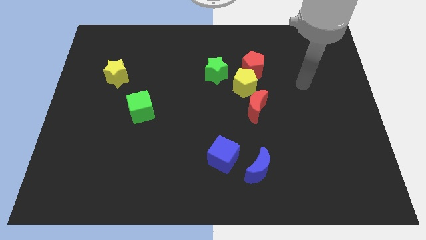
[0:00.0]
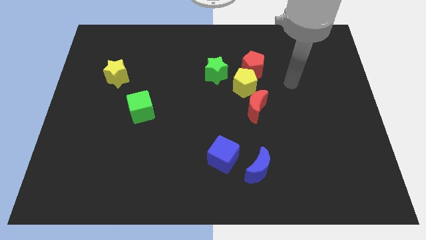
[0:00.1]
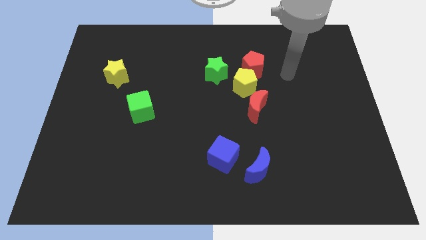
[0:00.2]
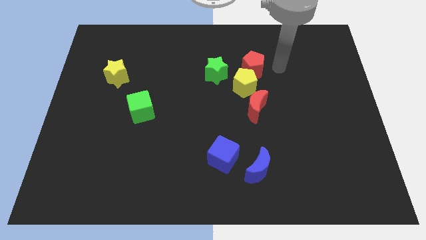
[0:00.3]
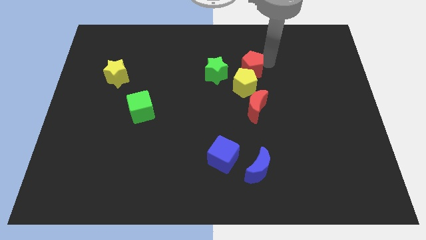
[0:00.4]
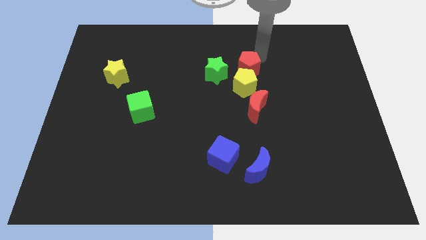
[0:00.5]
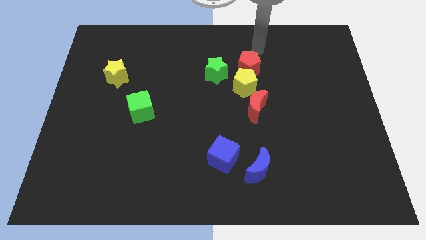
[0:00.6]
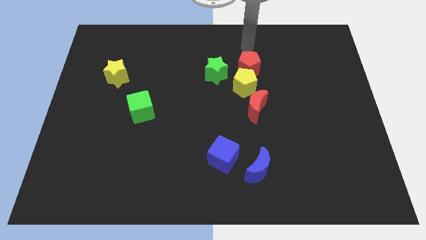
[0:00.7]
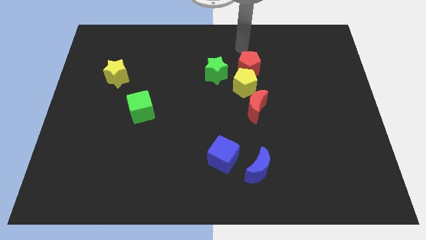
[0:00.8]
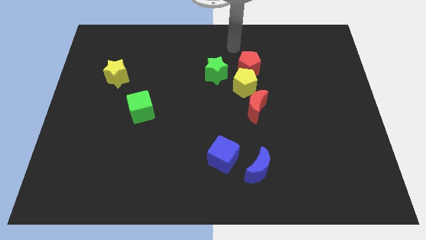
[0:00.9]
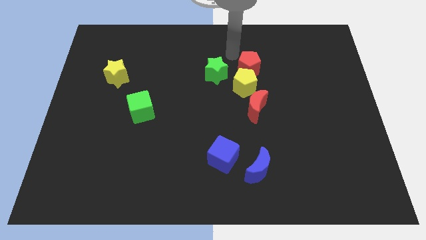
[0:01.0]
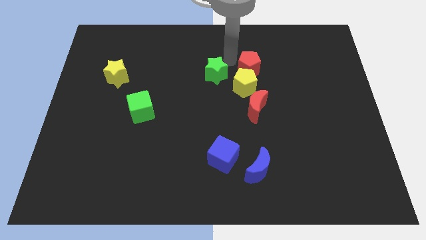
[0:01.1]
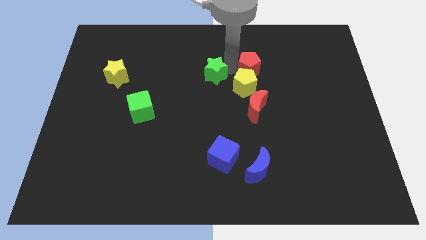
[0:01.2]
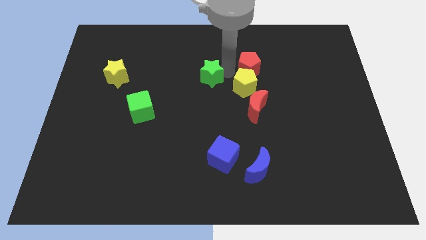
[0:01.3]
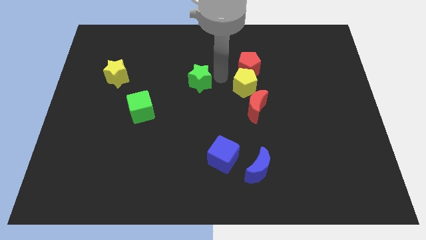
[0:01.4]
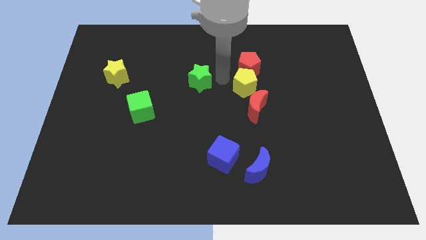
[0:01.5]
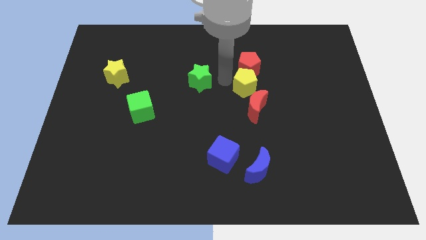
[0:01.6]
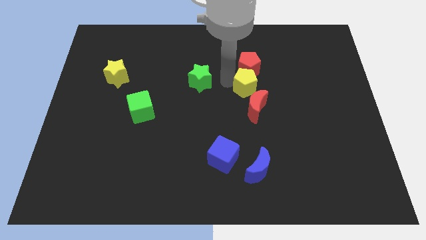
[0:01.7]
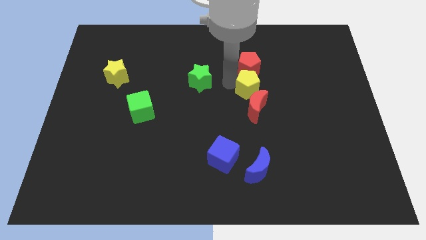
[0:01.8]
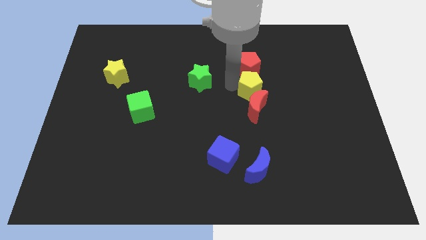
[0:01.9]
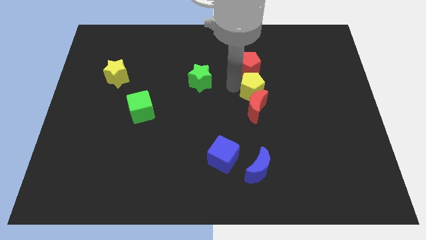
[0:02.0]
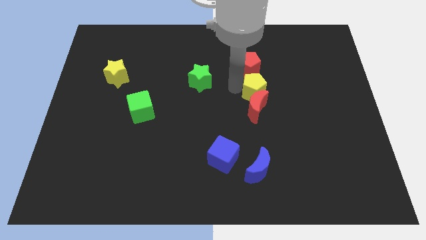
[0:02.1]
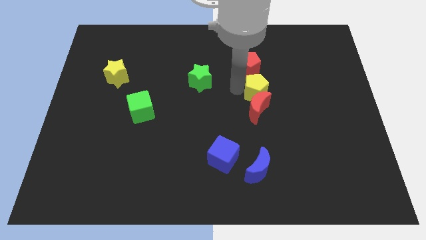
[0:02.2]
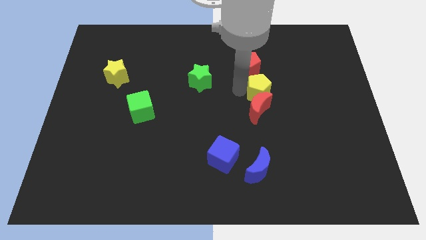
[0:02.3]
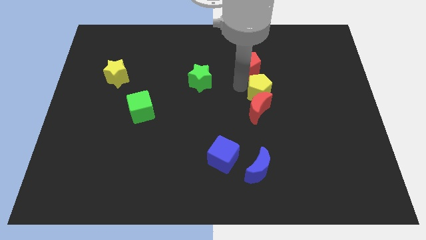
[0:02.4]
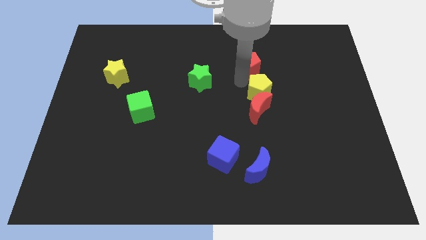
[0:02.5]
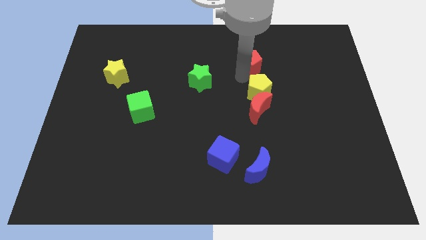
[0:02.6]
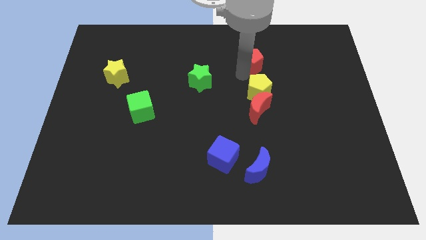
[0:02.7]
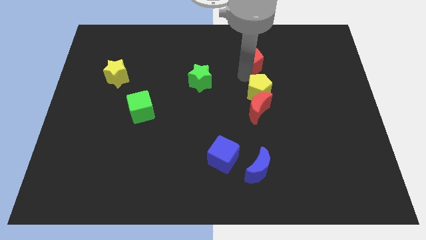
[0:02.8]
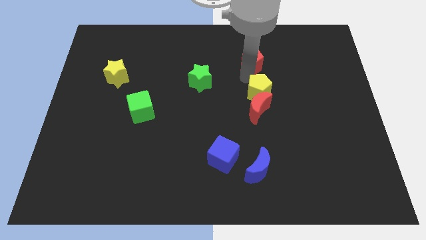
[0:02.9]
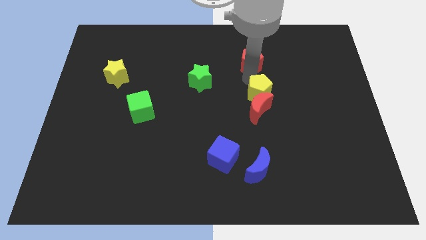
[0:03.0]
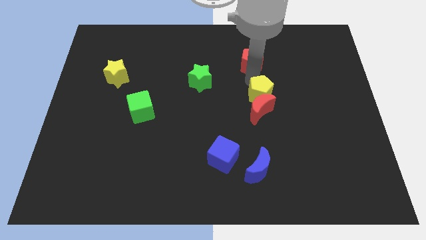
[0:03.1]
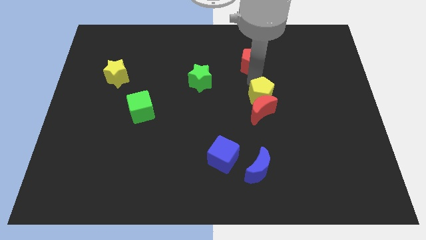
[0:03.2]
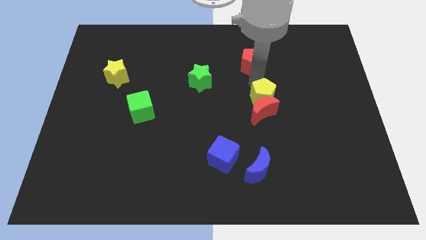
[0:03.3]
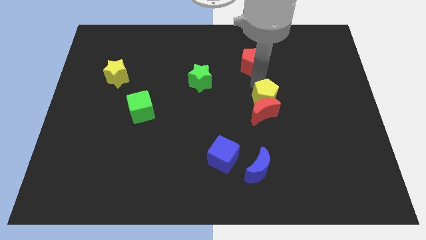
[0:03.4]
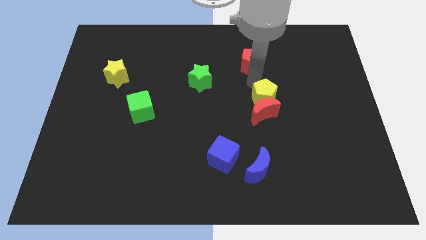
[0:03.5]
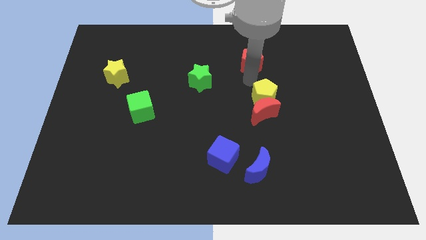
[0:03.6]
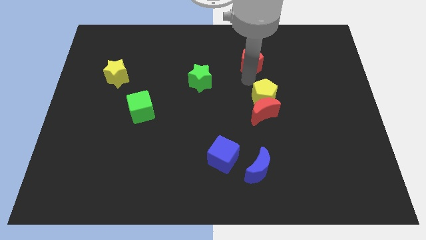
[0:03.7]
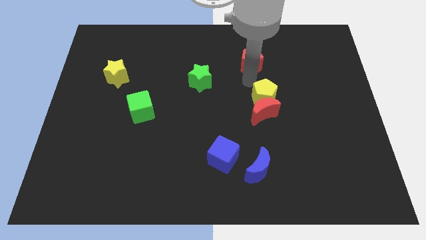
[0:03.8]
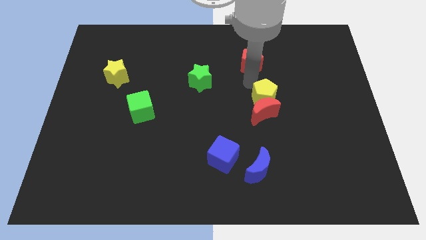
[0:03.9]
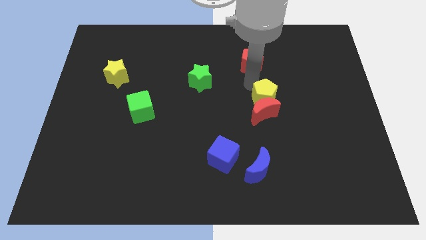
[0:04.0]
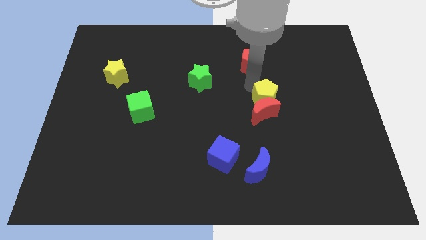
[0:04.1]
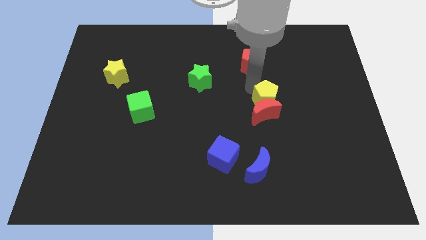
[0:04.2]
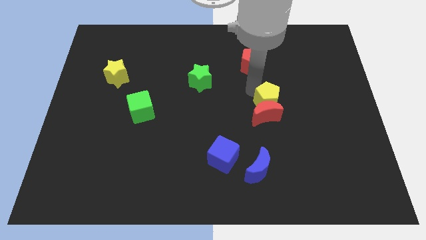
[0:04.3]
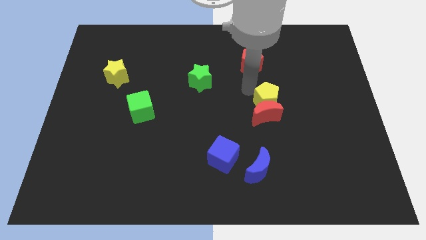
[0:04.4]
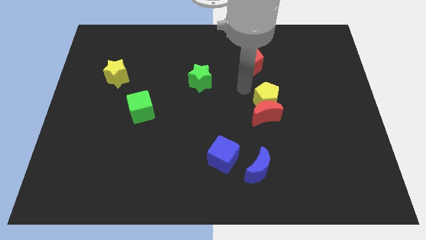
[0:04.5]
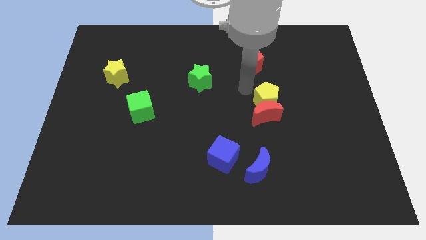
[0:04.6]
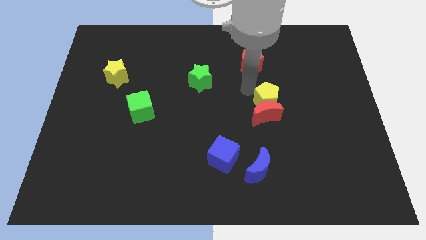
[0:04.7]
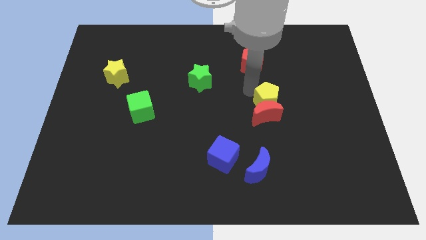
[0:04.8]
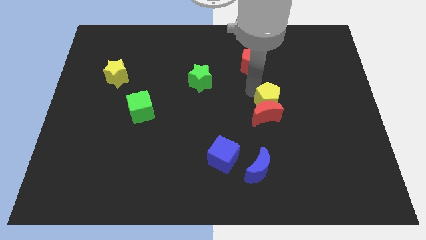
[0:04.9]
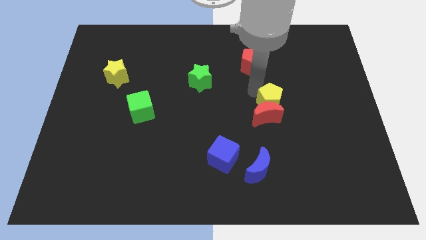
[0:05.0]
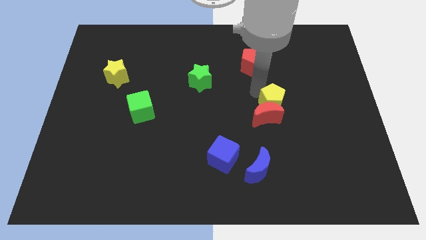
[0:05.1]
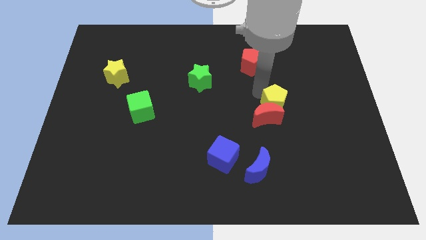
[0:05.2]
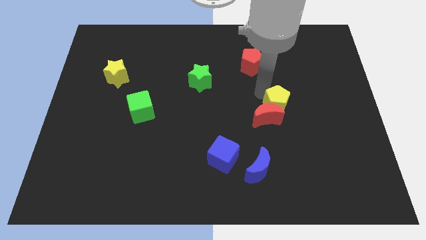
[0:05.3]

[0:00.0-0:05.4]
pull the yellow pentagon apart from the red pentagon, red moon, and green star

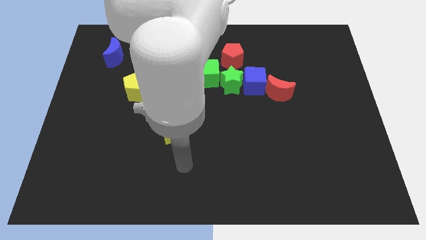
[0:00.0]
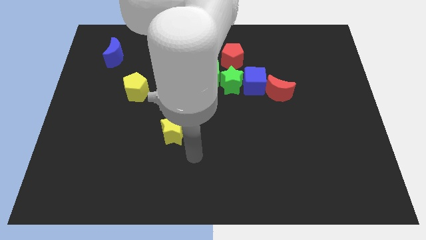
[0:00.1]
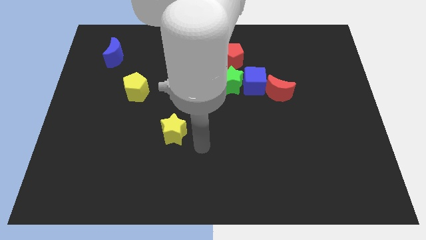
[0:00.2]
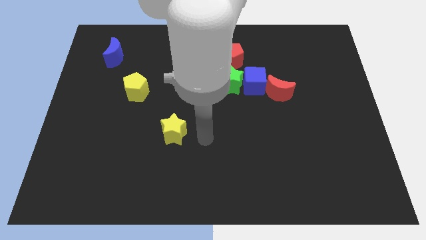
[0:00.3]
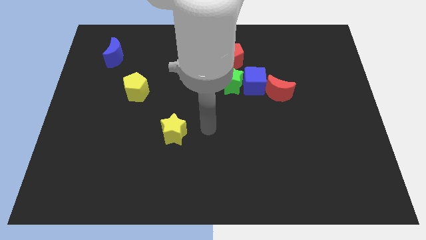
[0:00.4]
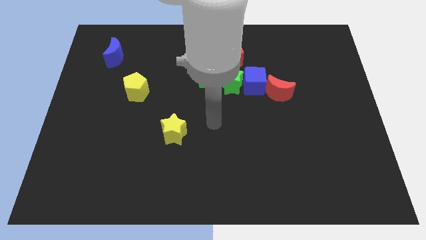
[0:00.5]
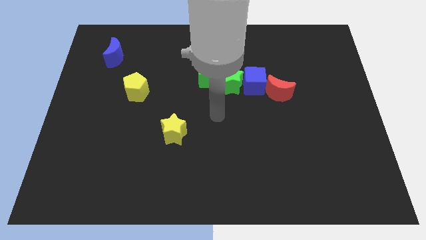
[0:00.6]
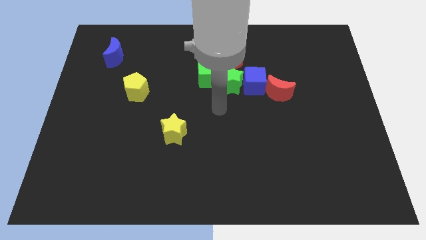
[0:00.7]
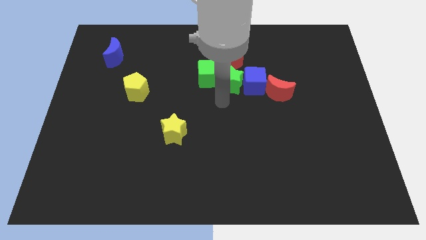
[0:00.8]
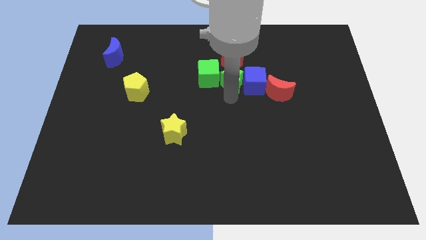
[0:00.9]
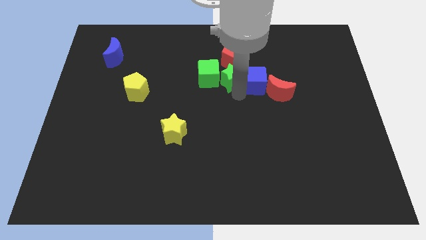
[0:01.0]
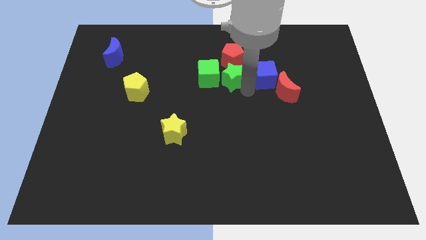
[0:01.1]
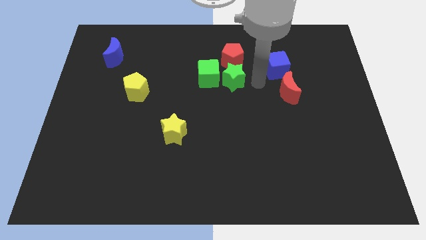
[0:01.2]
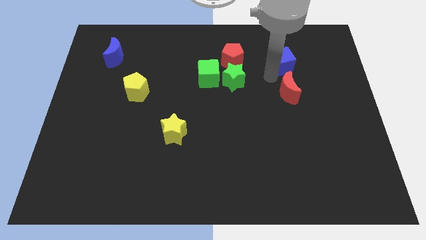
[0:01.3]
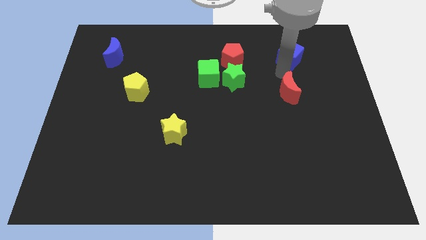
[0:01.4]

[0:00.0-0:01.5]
pull the red moon apart from the blue cube

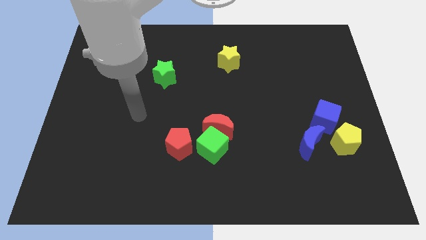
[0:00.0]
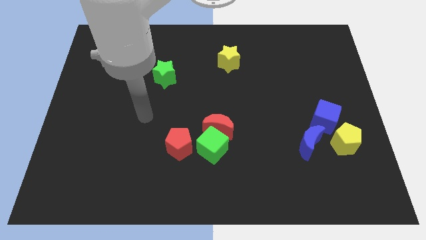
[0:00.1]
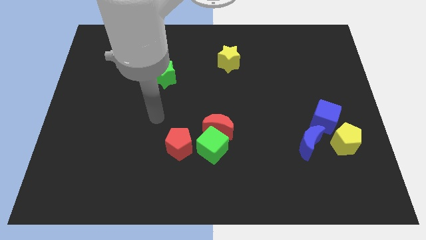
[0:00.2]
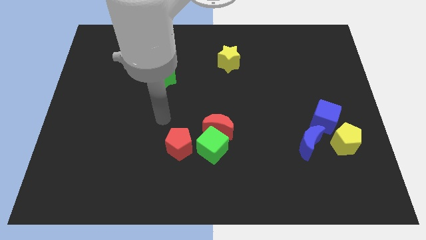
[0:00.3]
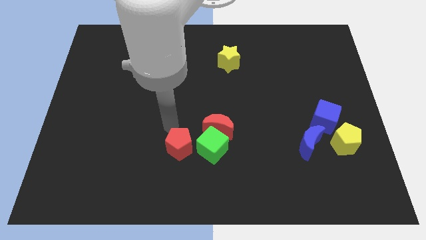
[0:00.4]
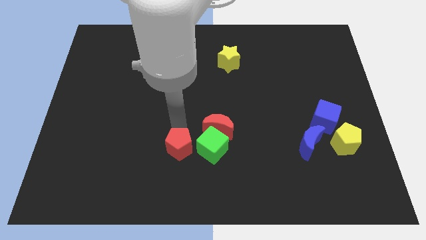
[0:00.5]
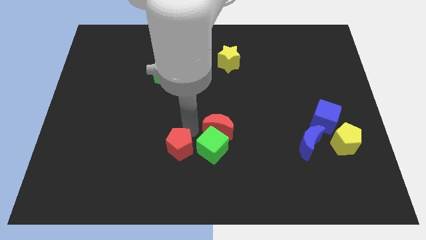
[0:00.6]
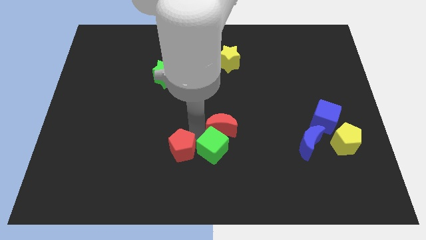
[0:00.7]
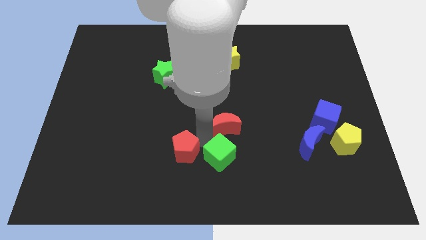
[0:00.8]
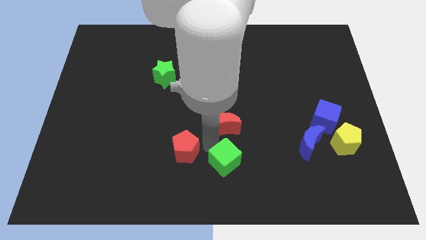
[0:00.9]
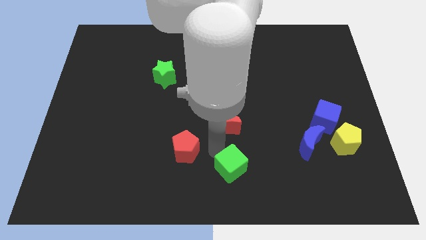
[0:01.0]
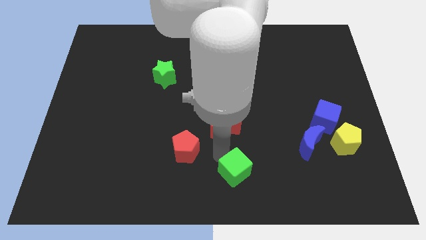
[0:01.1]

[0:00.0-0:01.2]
separate the green cube from the red moon and red pentagon

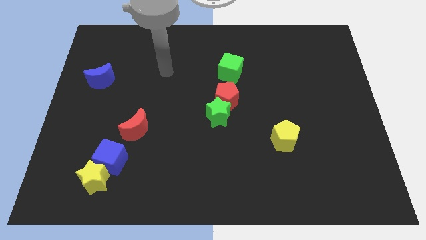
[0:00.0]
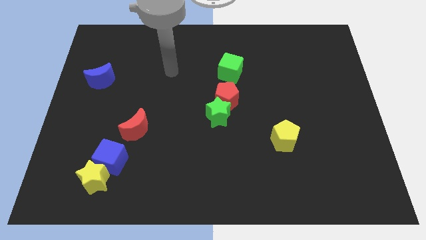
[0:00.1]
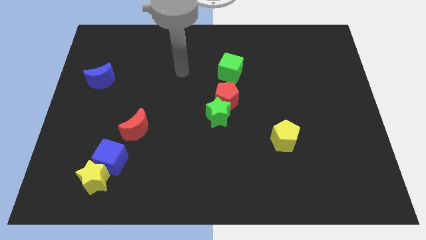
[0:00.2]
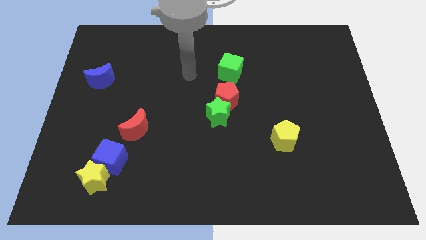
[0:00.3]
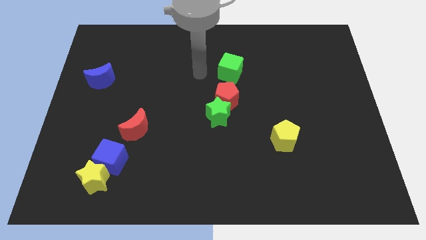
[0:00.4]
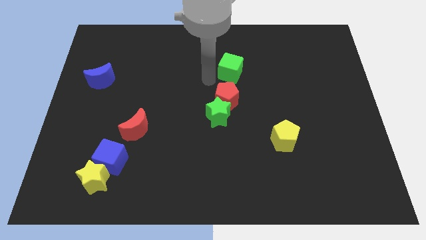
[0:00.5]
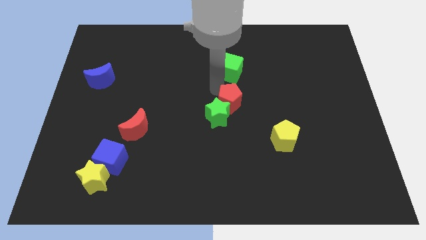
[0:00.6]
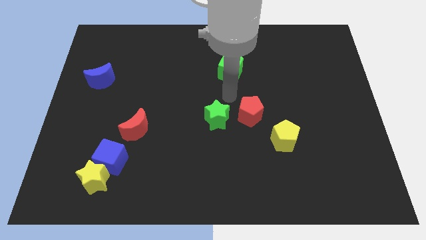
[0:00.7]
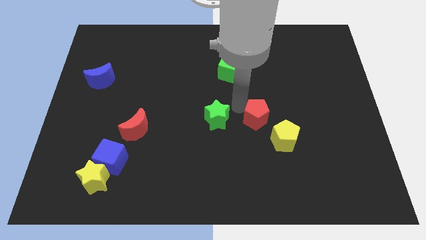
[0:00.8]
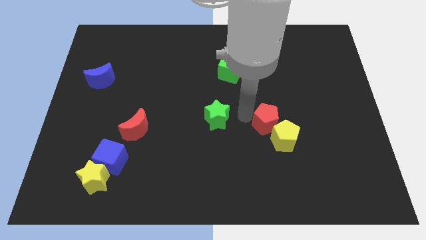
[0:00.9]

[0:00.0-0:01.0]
separate the green star from the red pentagon

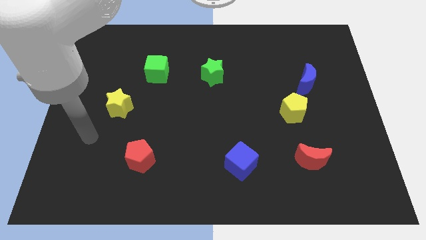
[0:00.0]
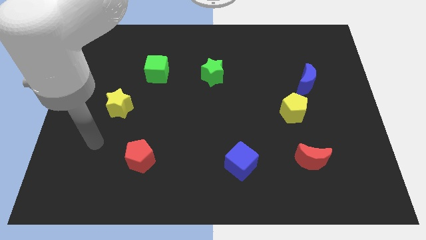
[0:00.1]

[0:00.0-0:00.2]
pull the blue moon apart from the yellow pentagon
